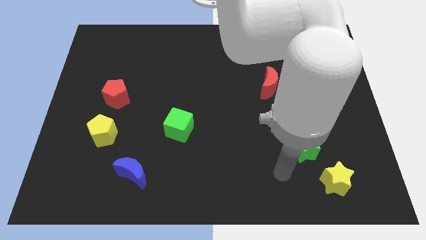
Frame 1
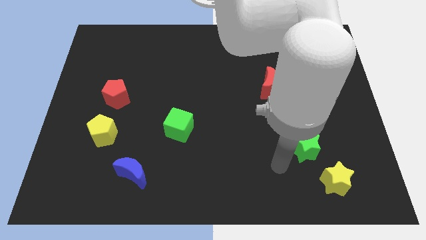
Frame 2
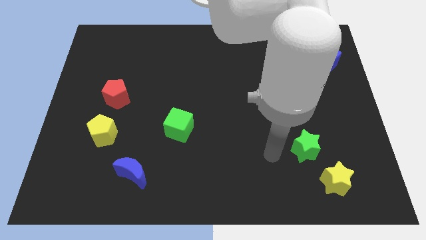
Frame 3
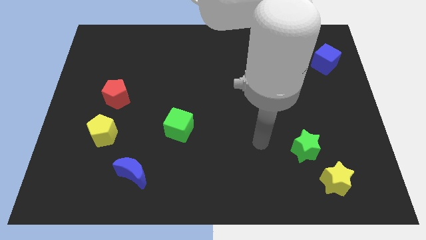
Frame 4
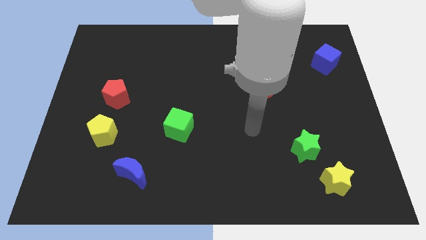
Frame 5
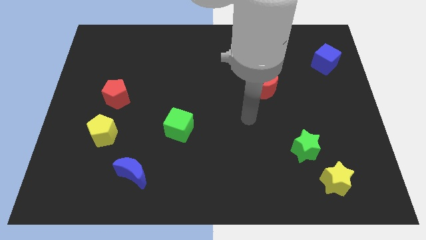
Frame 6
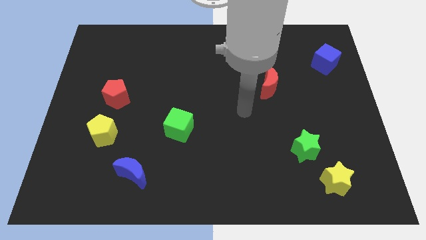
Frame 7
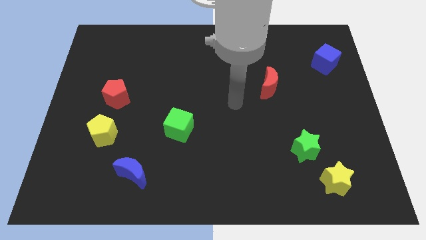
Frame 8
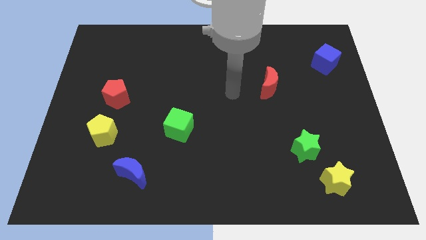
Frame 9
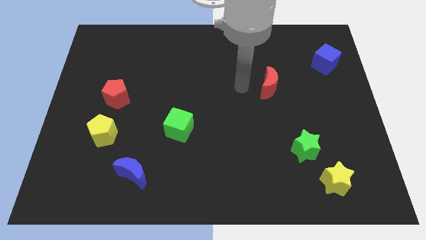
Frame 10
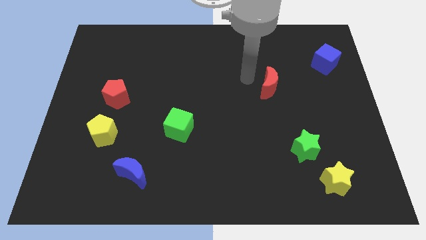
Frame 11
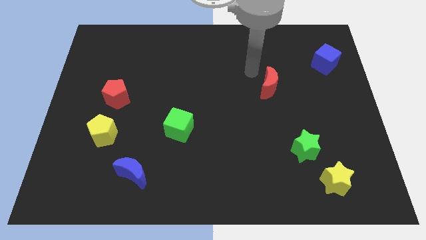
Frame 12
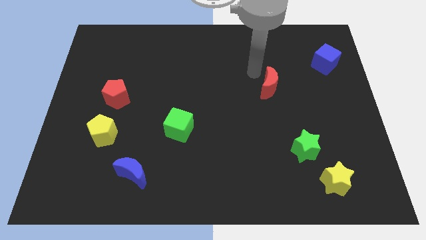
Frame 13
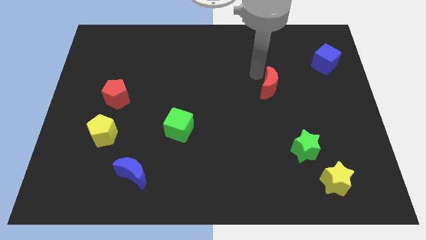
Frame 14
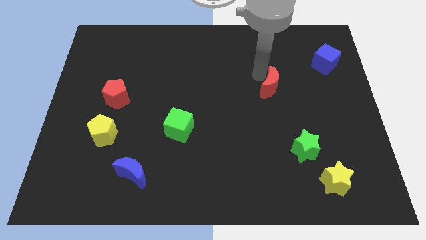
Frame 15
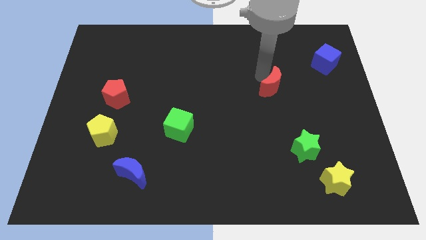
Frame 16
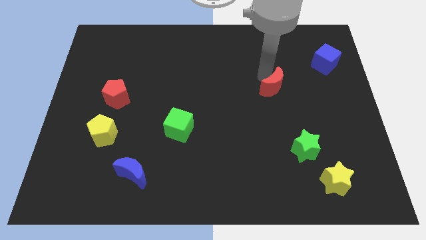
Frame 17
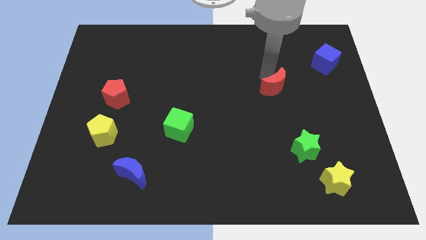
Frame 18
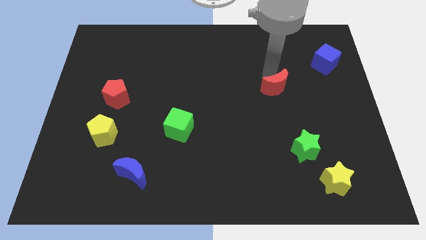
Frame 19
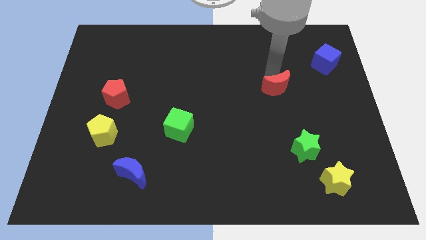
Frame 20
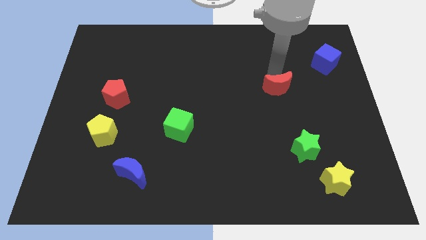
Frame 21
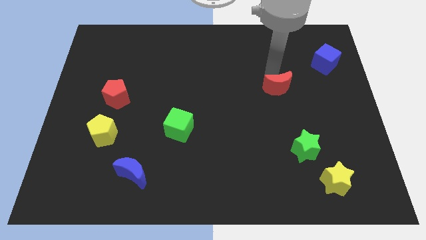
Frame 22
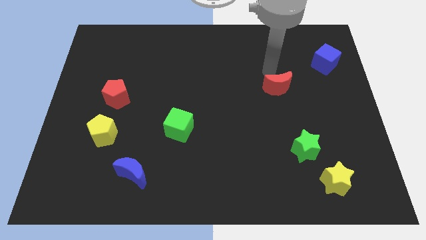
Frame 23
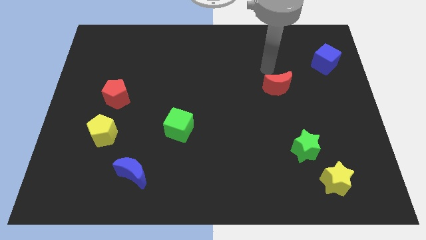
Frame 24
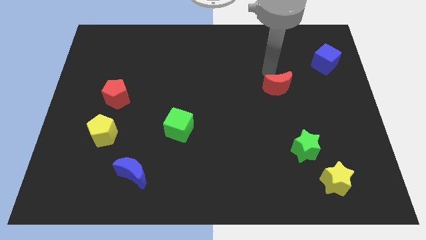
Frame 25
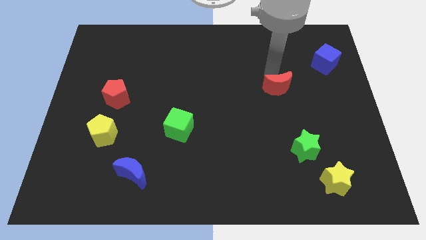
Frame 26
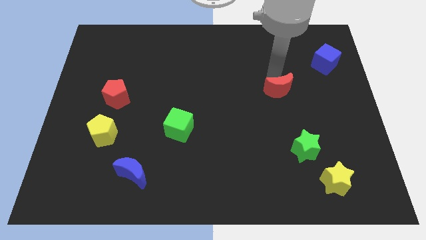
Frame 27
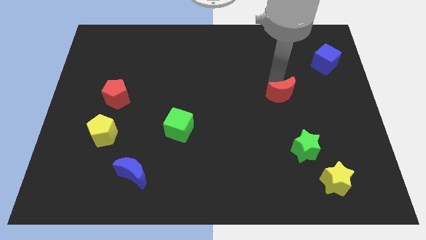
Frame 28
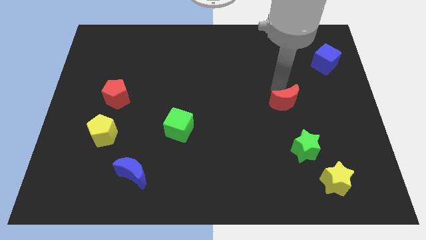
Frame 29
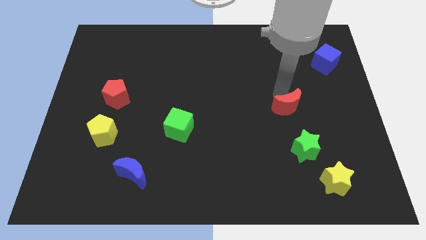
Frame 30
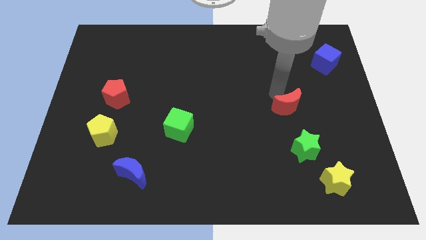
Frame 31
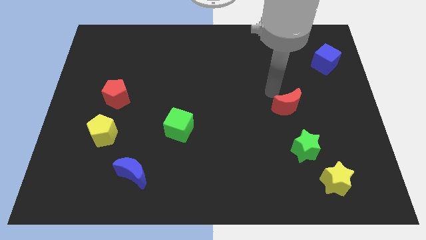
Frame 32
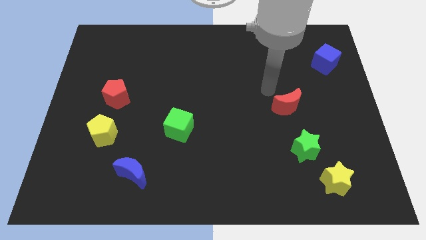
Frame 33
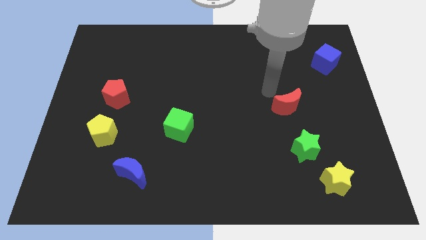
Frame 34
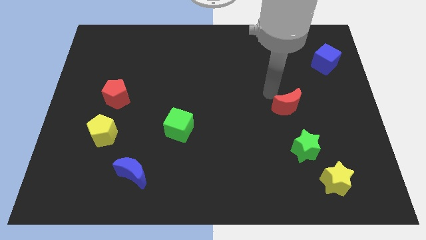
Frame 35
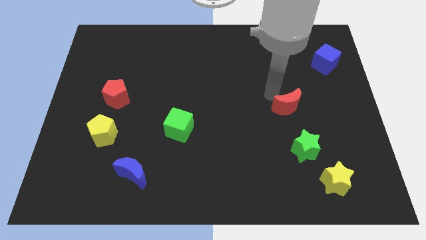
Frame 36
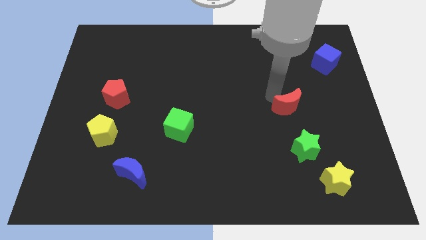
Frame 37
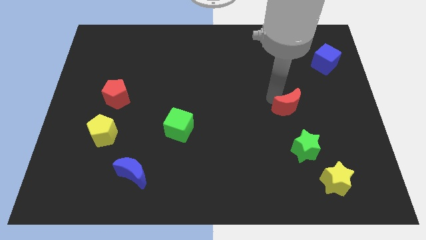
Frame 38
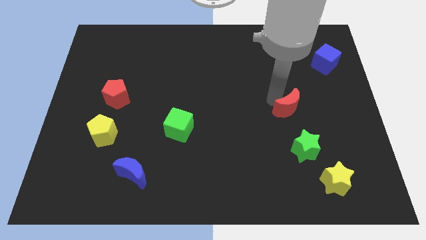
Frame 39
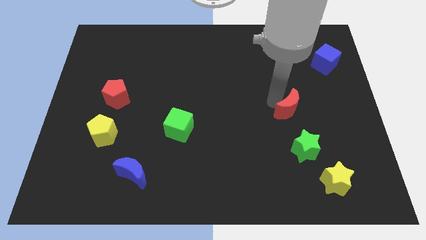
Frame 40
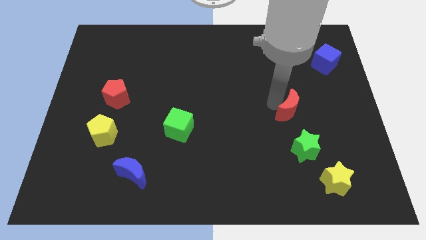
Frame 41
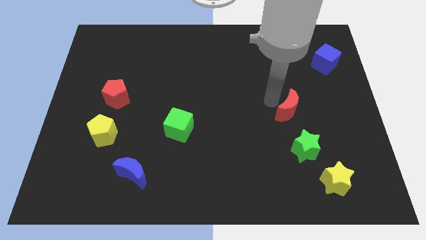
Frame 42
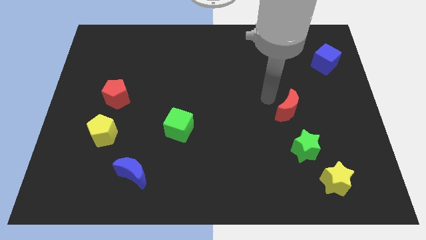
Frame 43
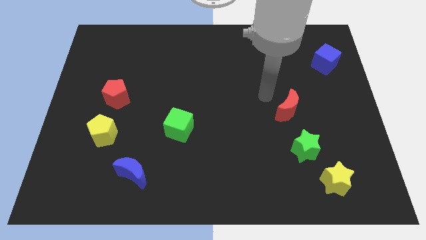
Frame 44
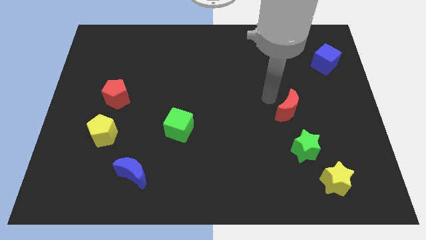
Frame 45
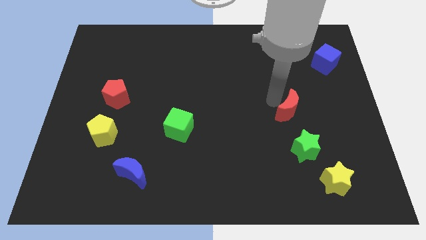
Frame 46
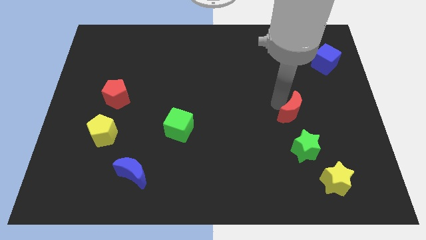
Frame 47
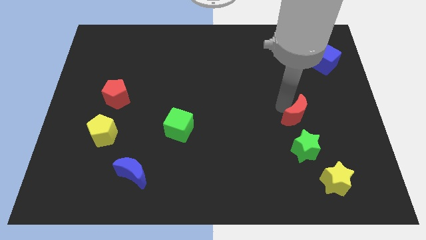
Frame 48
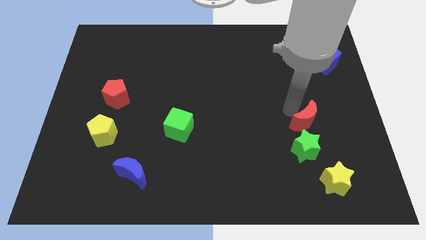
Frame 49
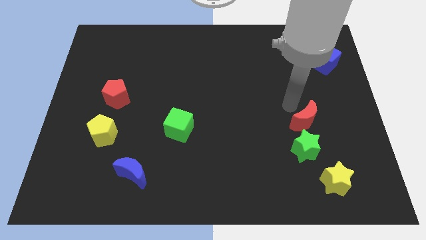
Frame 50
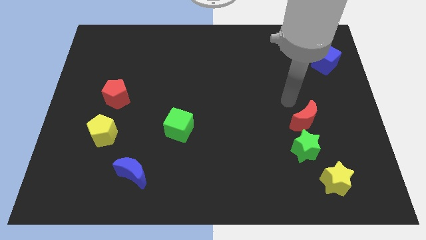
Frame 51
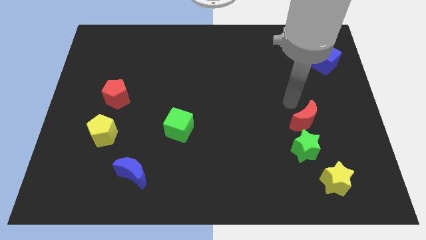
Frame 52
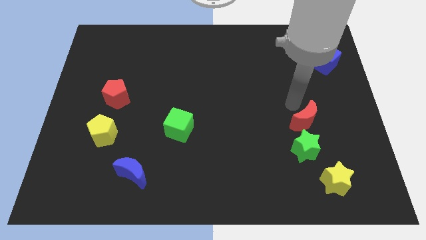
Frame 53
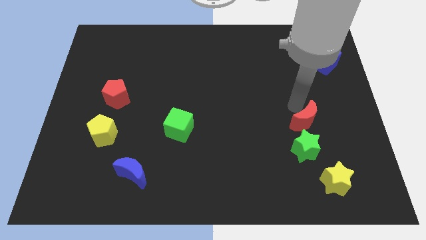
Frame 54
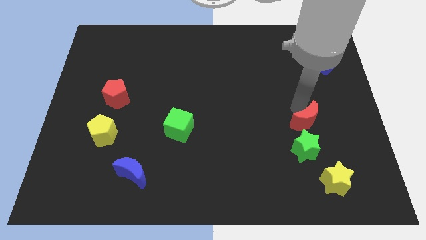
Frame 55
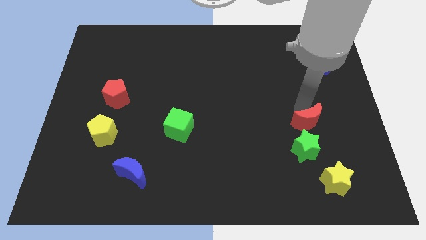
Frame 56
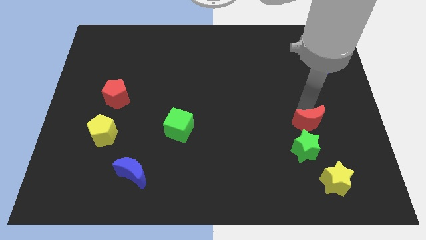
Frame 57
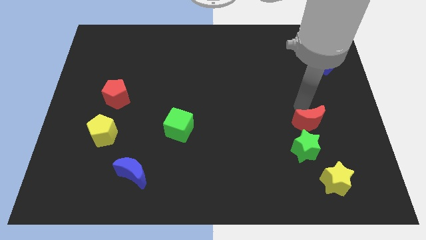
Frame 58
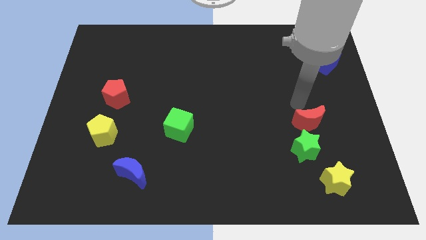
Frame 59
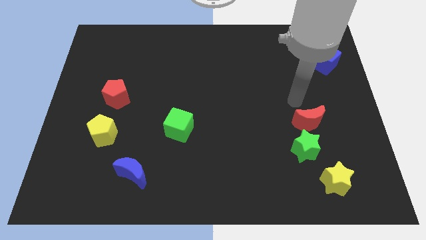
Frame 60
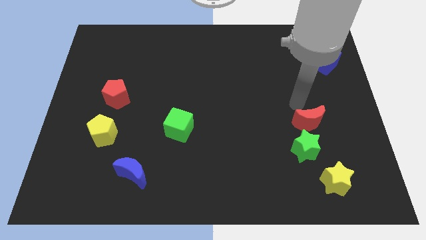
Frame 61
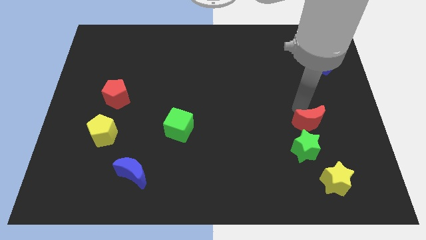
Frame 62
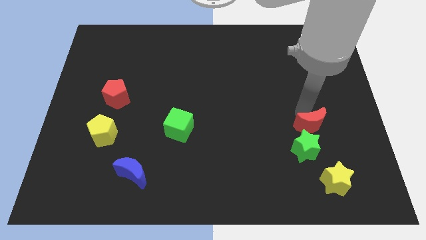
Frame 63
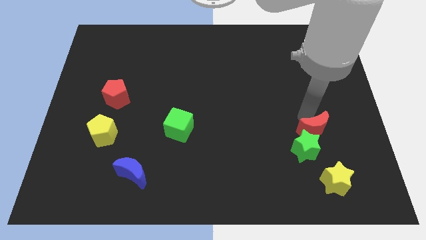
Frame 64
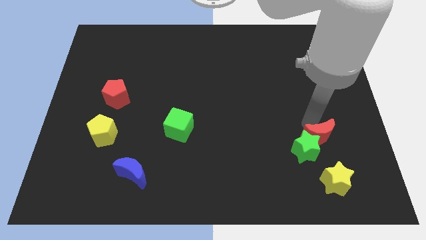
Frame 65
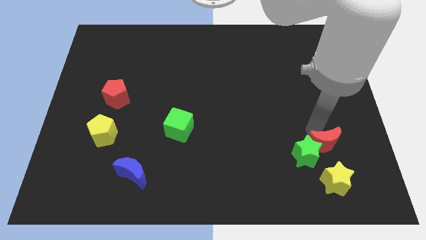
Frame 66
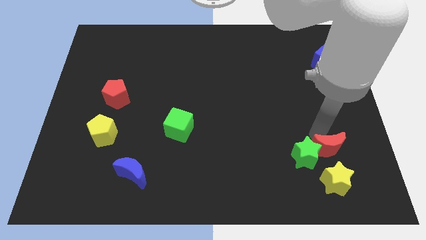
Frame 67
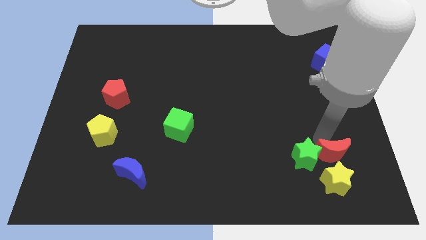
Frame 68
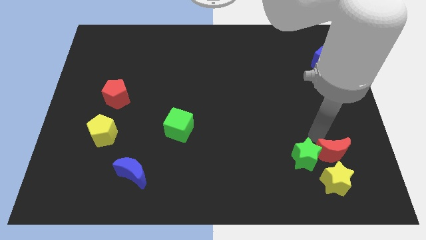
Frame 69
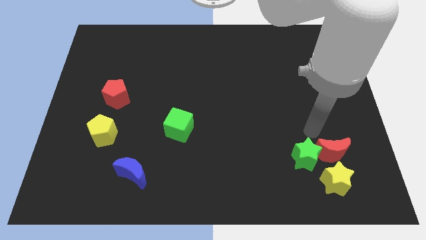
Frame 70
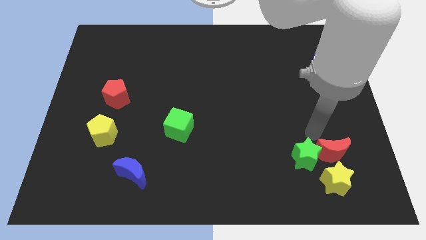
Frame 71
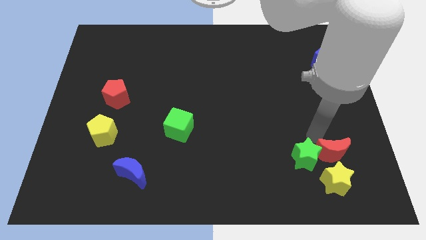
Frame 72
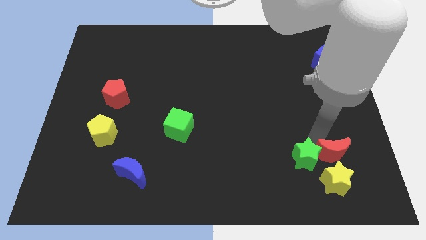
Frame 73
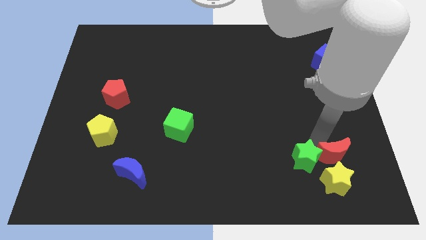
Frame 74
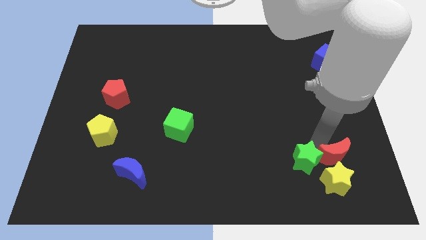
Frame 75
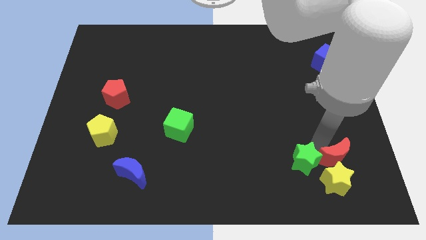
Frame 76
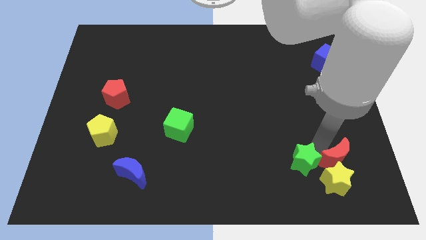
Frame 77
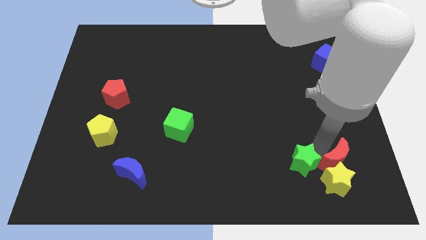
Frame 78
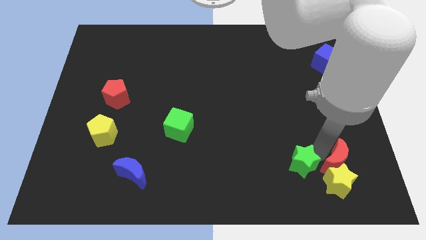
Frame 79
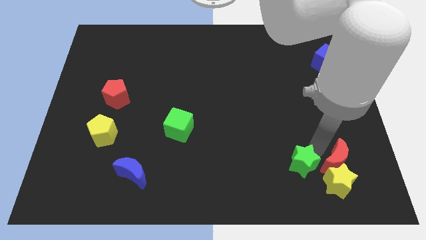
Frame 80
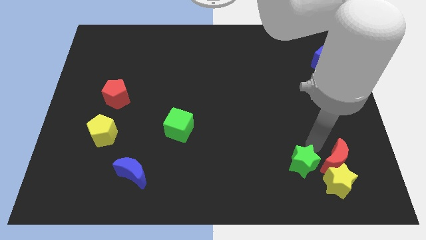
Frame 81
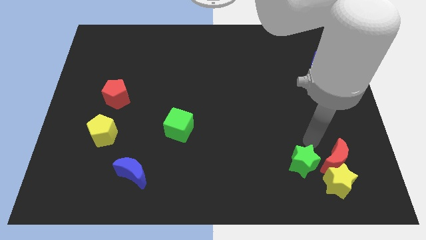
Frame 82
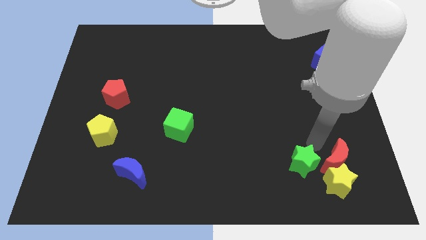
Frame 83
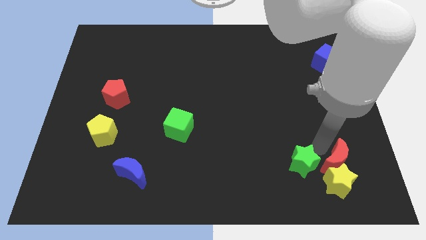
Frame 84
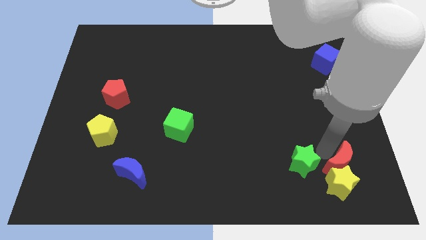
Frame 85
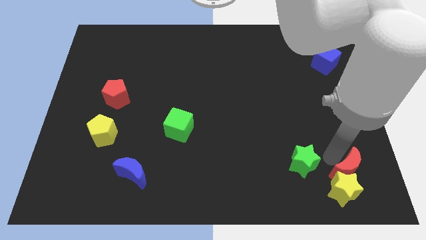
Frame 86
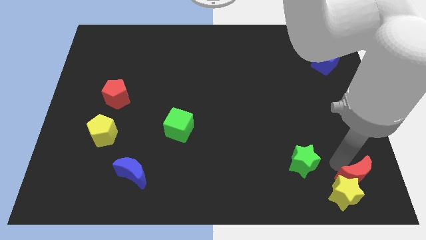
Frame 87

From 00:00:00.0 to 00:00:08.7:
put the red moon to the bottom right corner
